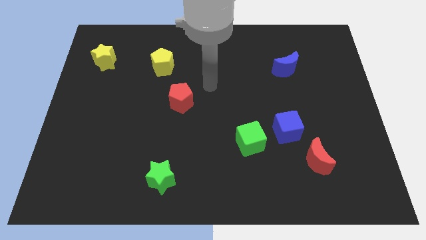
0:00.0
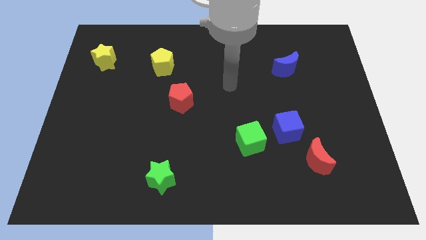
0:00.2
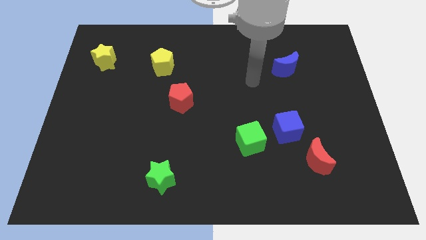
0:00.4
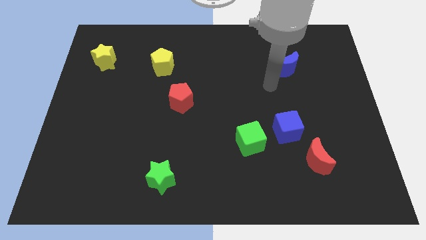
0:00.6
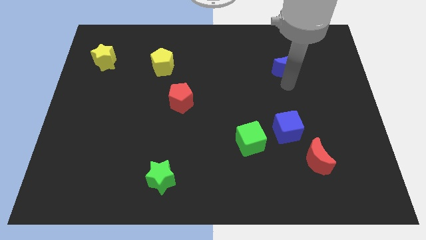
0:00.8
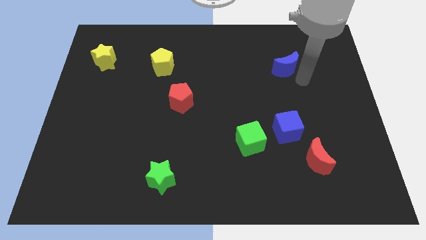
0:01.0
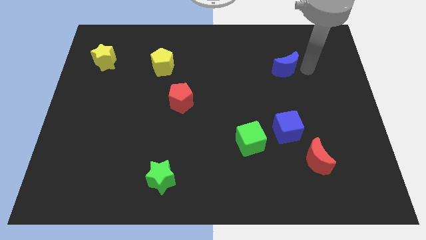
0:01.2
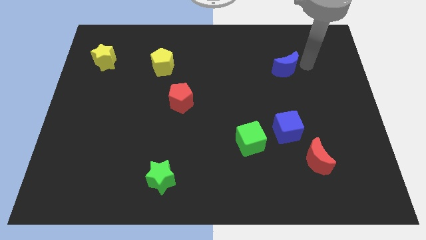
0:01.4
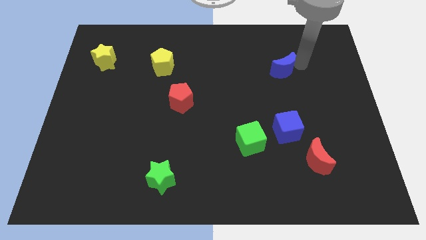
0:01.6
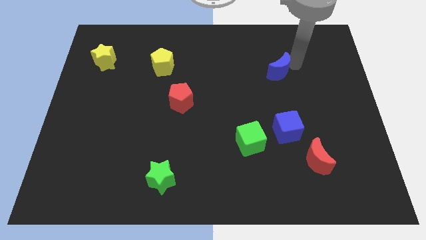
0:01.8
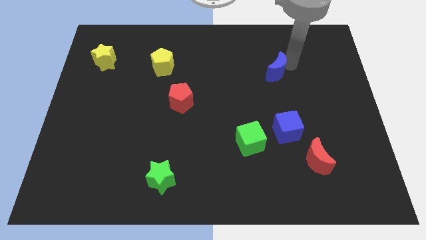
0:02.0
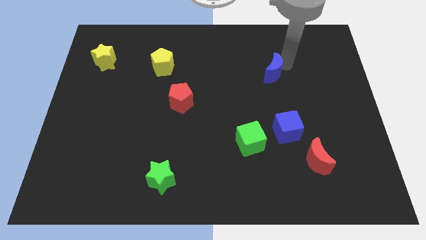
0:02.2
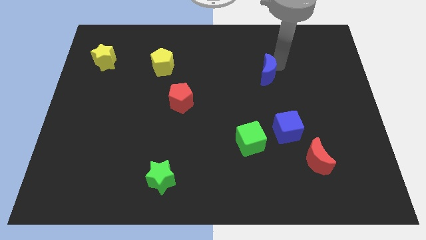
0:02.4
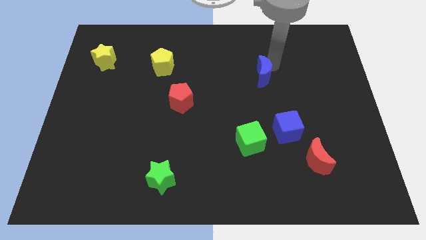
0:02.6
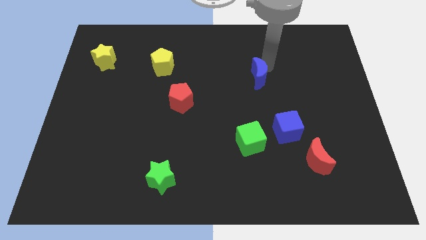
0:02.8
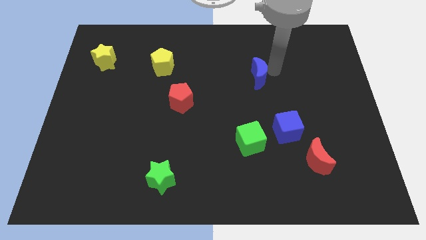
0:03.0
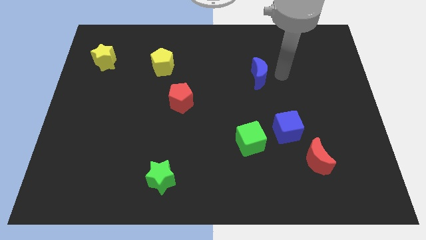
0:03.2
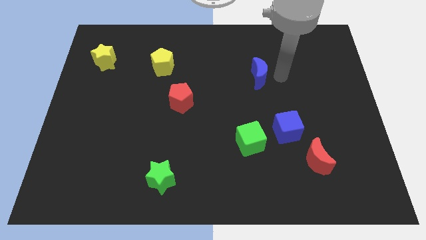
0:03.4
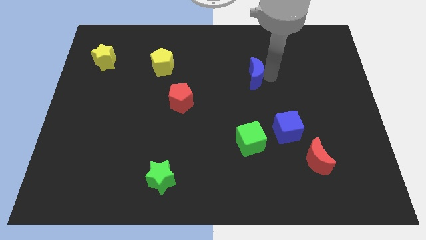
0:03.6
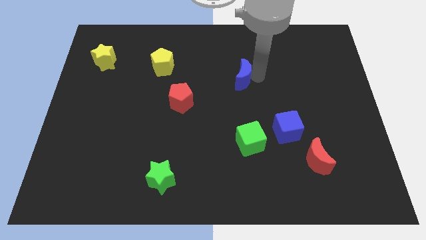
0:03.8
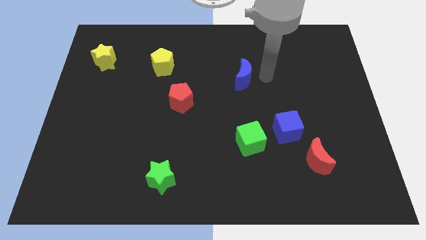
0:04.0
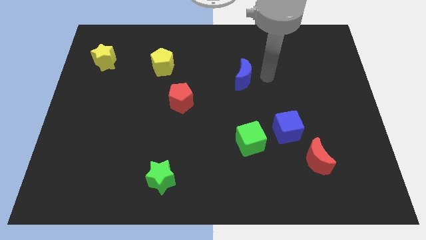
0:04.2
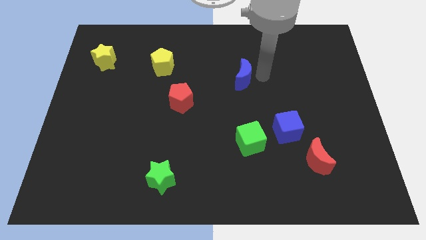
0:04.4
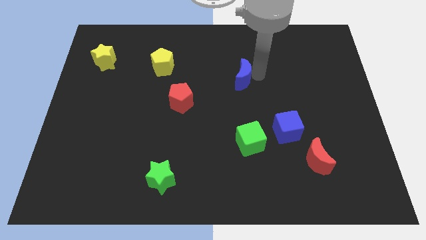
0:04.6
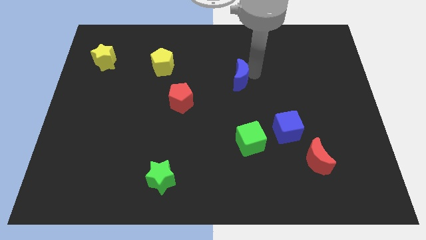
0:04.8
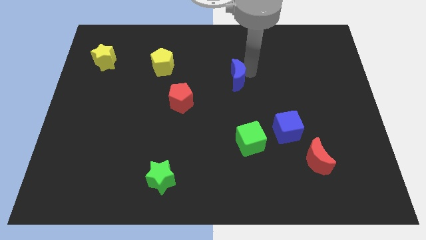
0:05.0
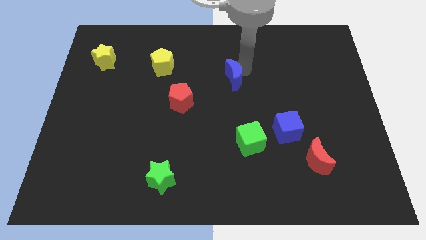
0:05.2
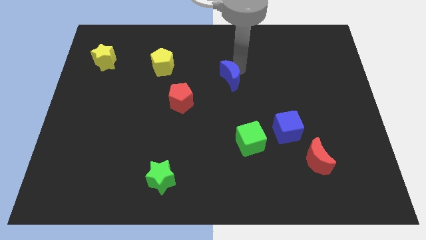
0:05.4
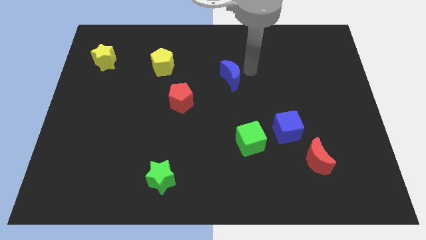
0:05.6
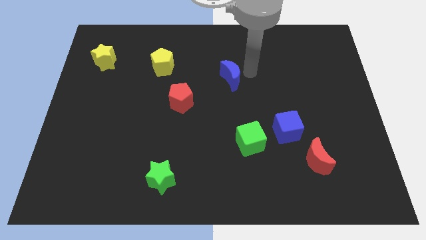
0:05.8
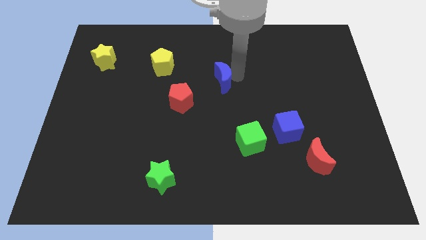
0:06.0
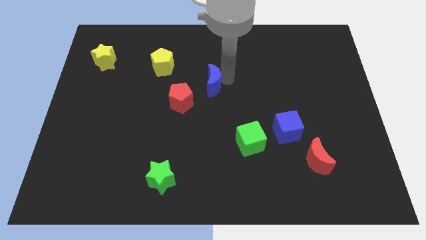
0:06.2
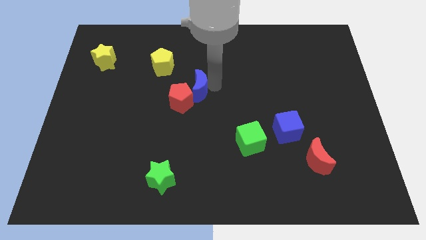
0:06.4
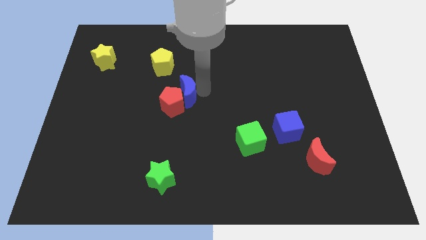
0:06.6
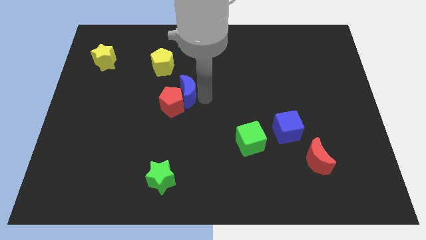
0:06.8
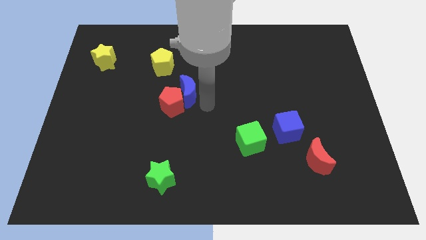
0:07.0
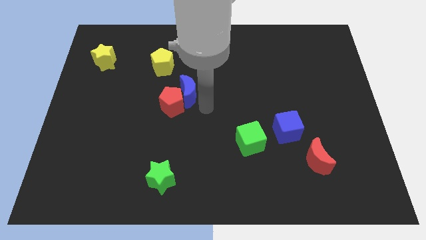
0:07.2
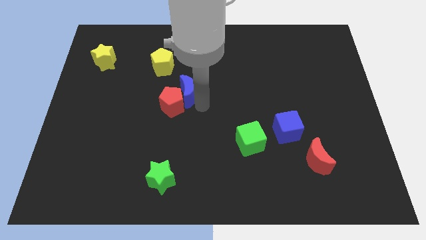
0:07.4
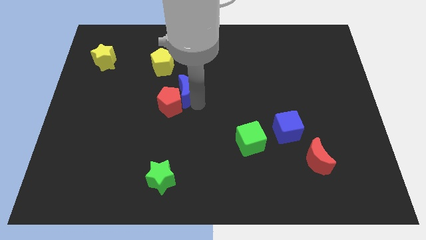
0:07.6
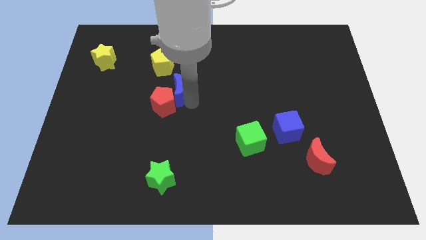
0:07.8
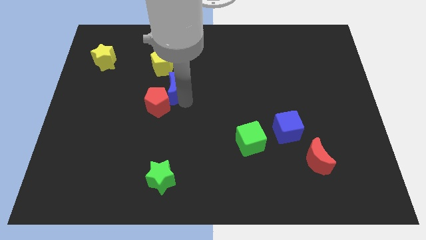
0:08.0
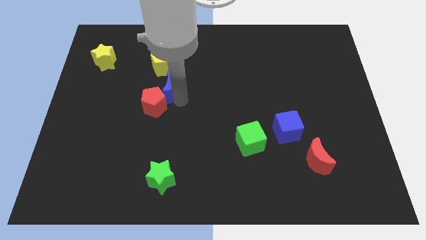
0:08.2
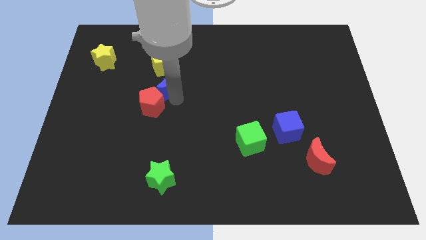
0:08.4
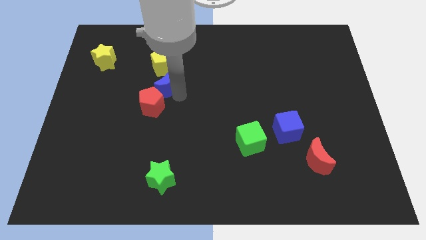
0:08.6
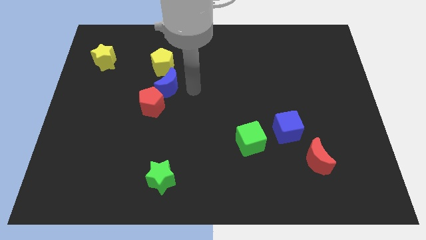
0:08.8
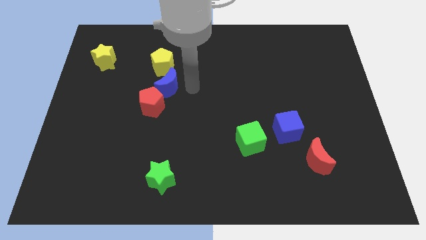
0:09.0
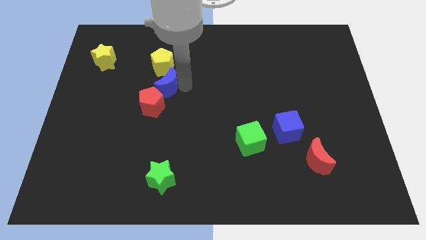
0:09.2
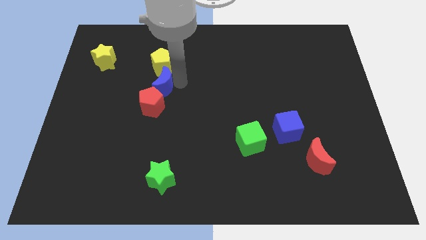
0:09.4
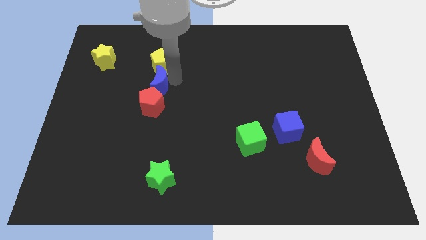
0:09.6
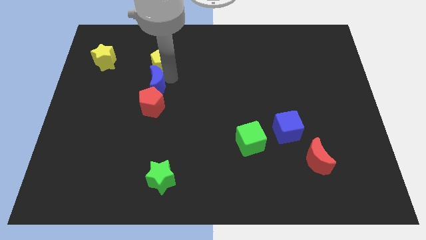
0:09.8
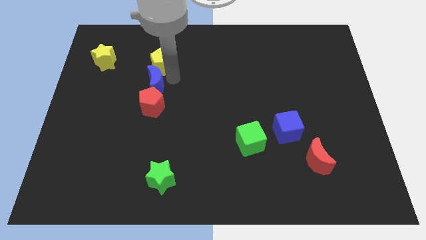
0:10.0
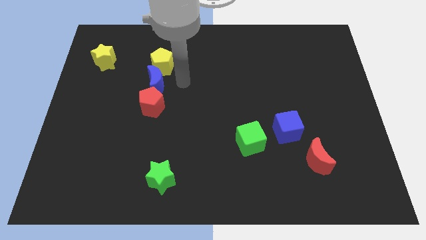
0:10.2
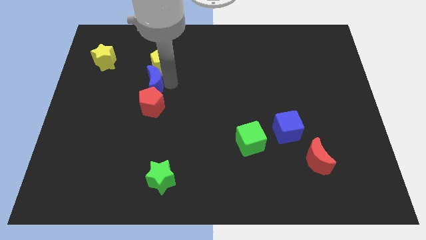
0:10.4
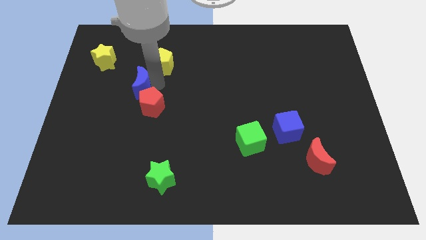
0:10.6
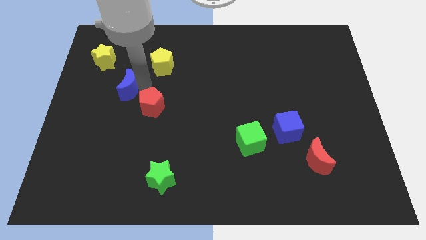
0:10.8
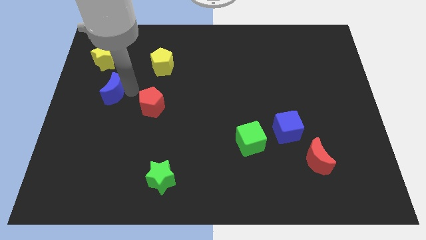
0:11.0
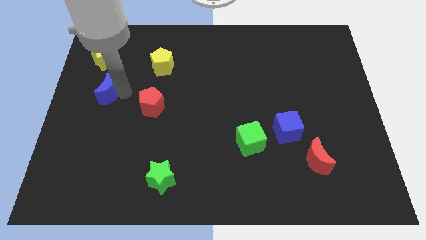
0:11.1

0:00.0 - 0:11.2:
move the blue moon to the center left
